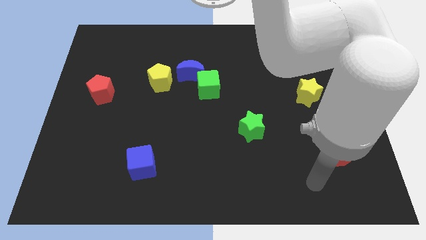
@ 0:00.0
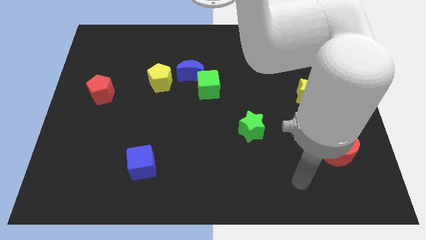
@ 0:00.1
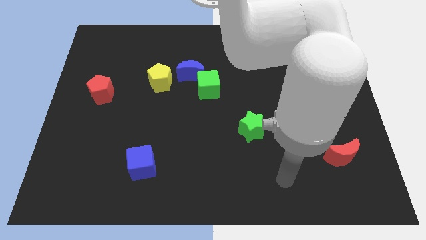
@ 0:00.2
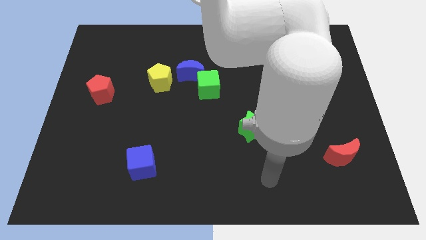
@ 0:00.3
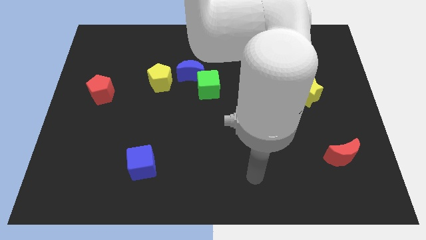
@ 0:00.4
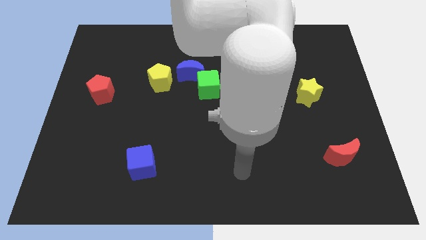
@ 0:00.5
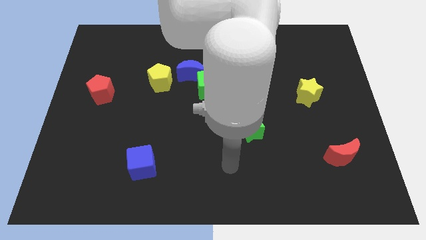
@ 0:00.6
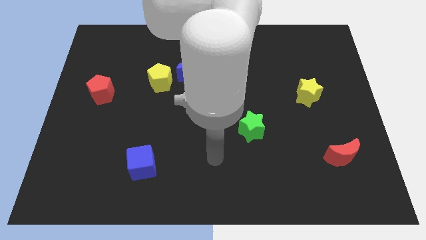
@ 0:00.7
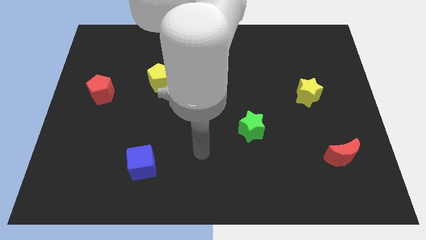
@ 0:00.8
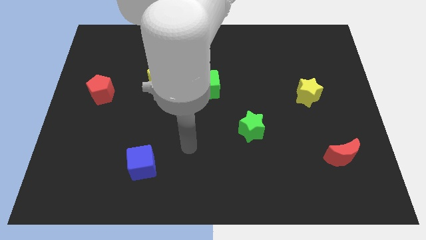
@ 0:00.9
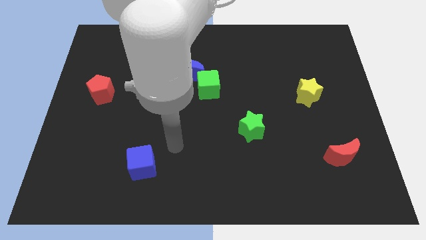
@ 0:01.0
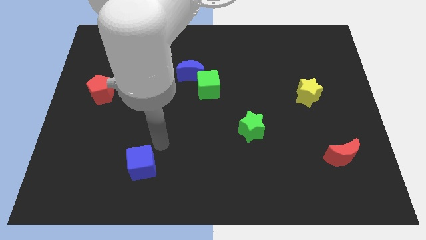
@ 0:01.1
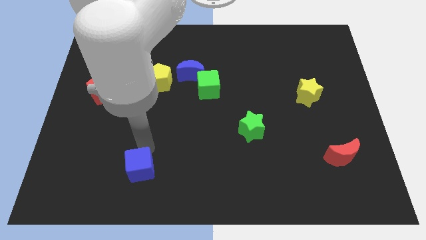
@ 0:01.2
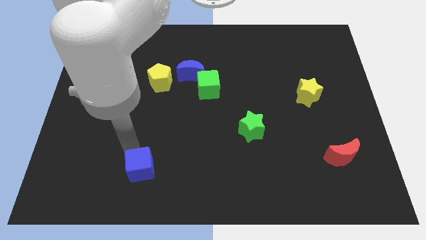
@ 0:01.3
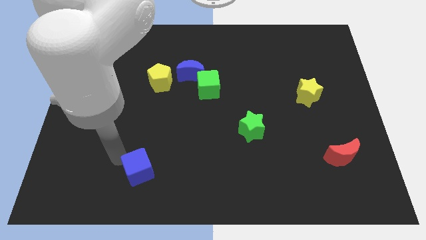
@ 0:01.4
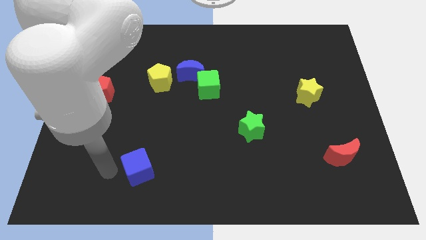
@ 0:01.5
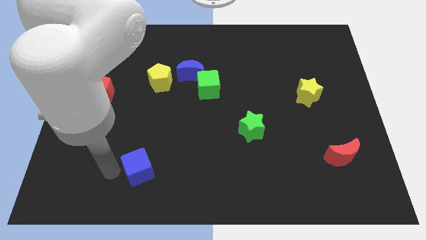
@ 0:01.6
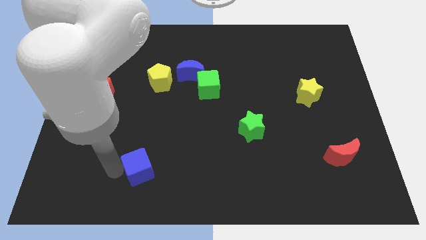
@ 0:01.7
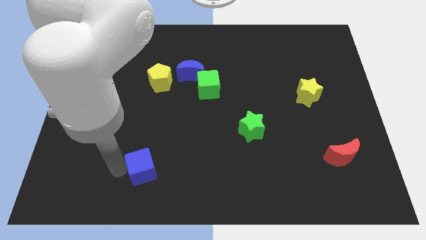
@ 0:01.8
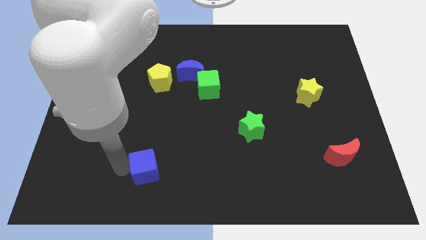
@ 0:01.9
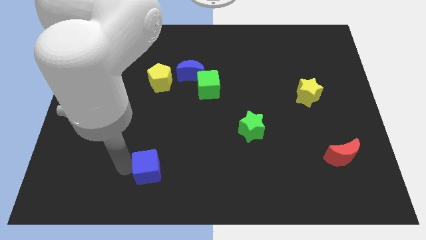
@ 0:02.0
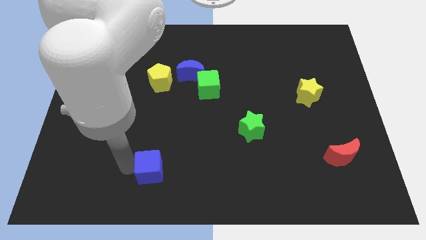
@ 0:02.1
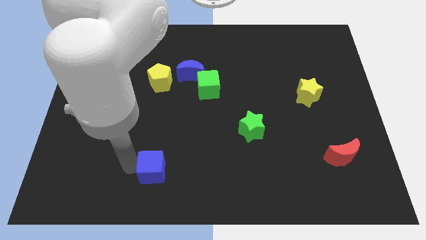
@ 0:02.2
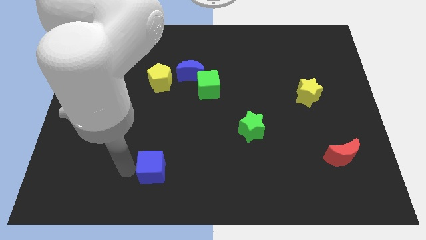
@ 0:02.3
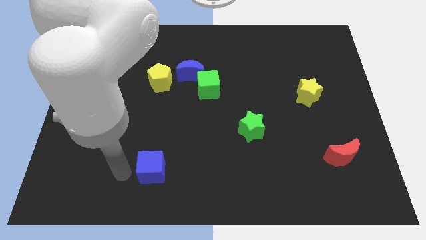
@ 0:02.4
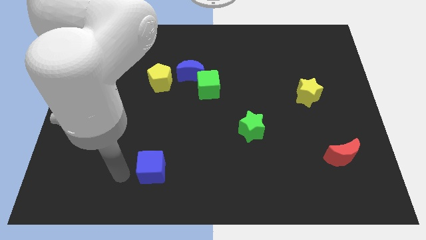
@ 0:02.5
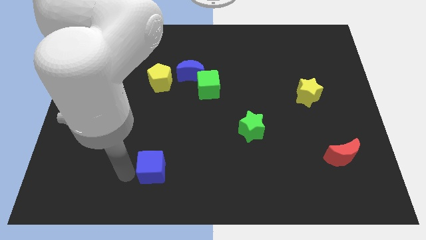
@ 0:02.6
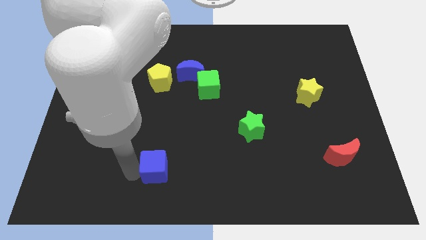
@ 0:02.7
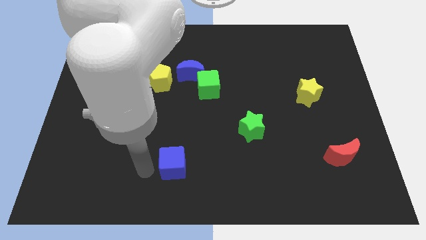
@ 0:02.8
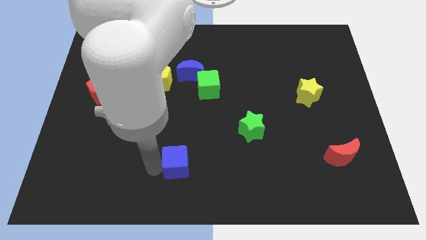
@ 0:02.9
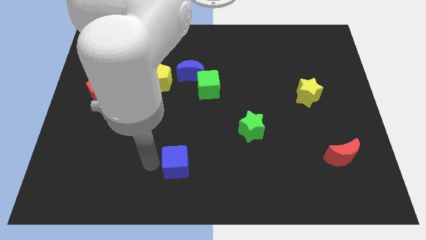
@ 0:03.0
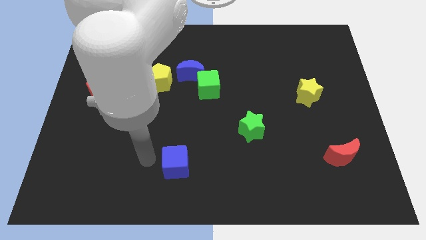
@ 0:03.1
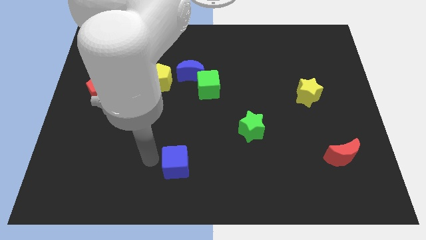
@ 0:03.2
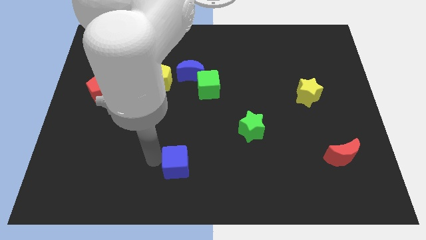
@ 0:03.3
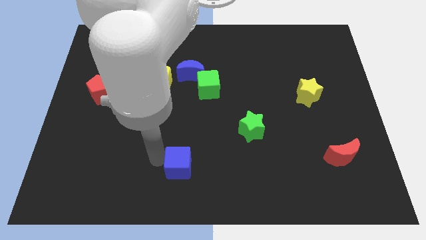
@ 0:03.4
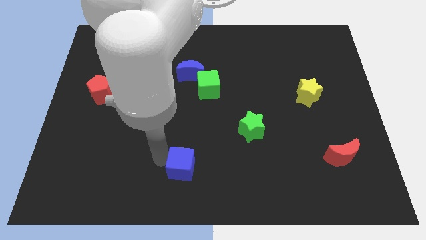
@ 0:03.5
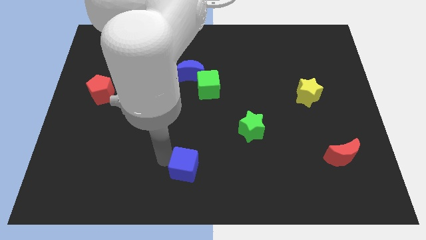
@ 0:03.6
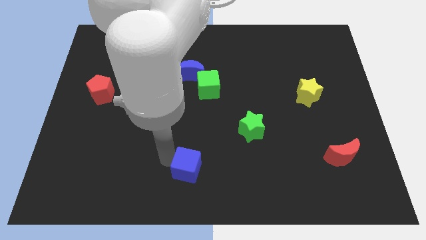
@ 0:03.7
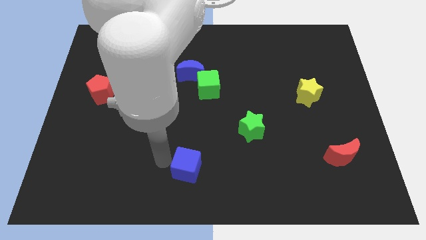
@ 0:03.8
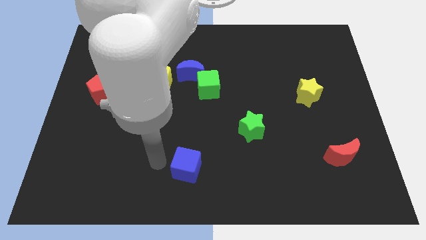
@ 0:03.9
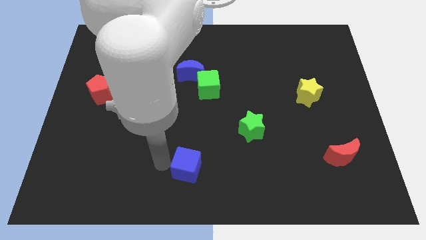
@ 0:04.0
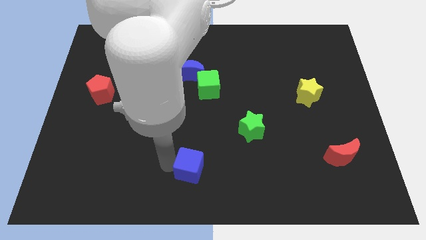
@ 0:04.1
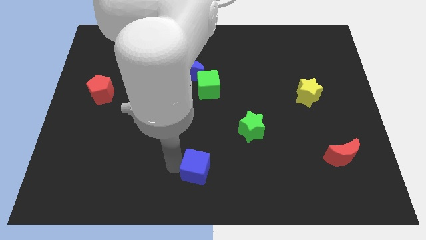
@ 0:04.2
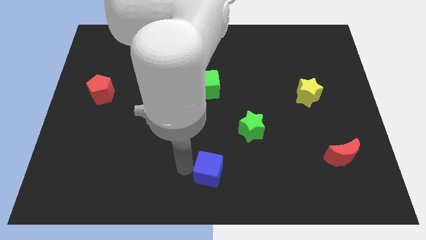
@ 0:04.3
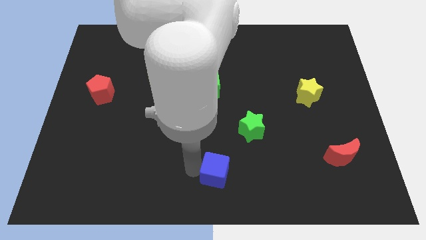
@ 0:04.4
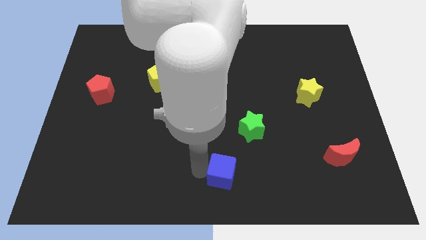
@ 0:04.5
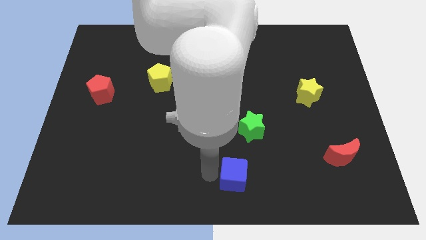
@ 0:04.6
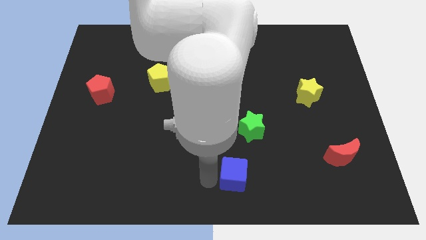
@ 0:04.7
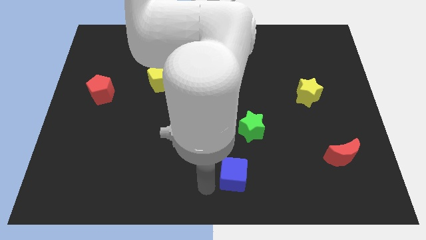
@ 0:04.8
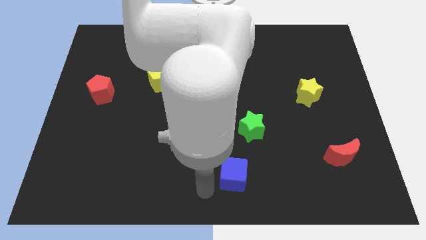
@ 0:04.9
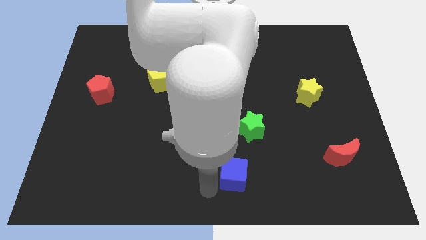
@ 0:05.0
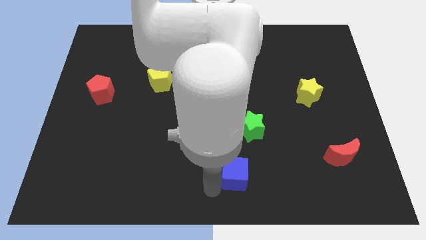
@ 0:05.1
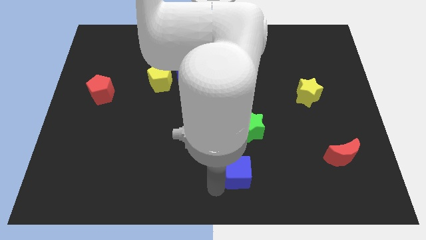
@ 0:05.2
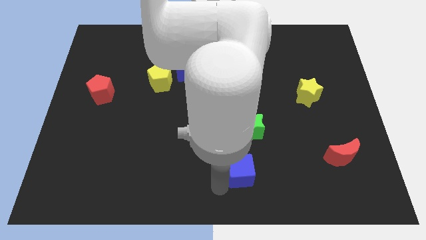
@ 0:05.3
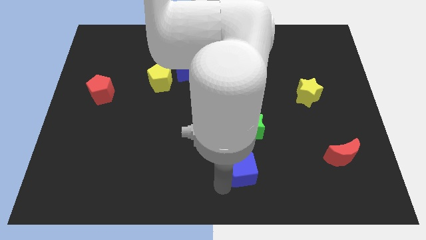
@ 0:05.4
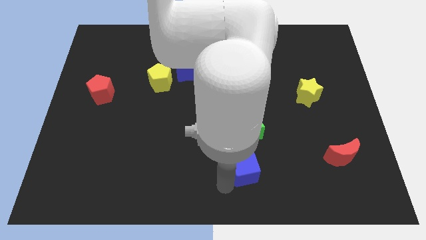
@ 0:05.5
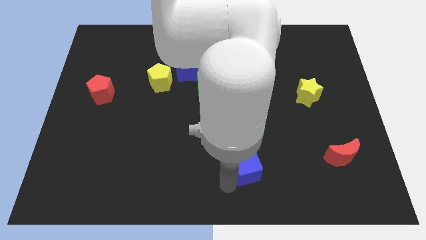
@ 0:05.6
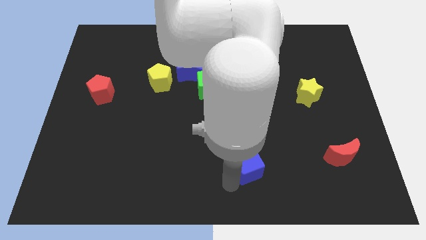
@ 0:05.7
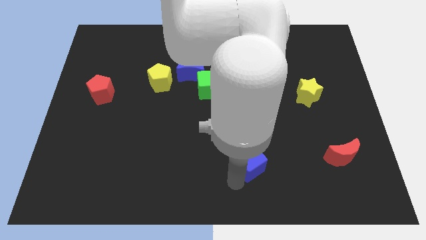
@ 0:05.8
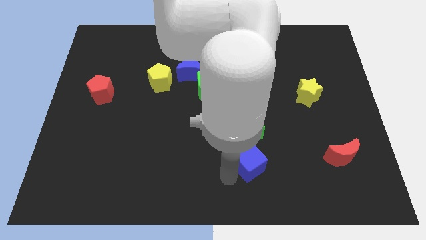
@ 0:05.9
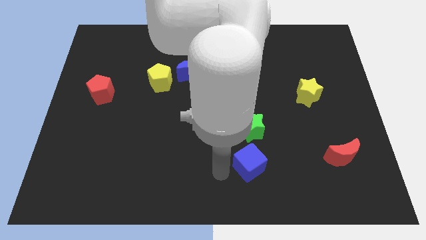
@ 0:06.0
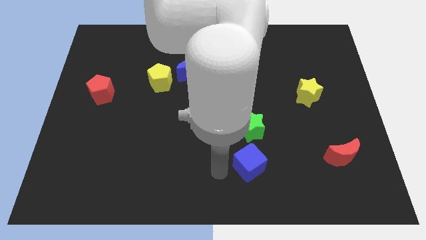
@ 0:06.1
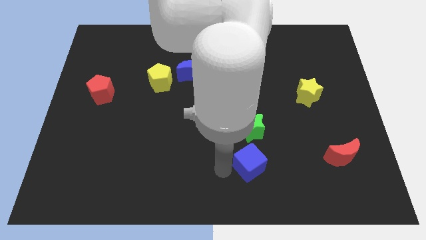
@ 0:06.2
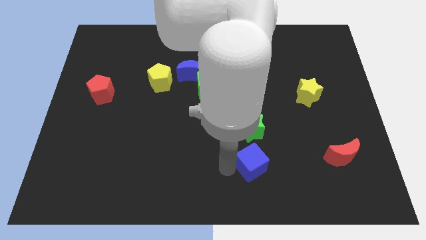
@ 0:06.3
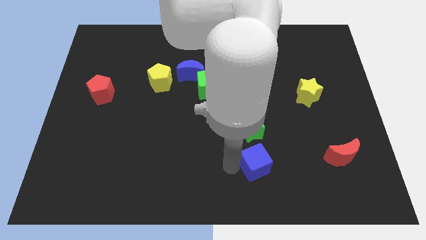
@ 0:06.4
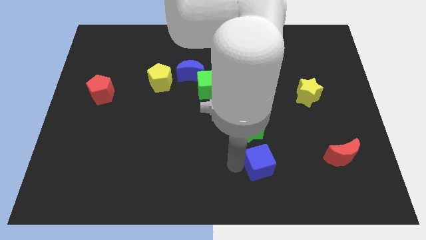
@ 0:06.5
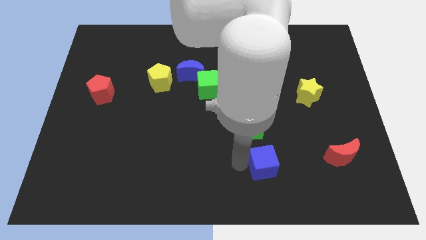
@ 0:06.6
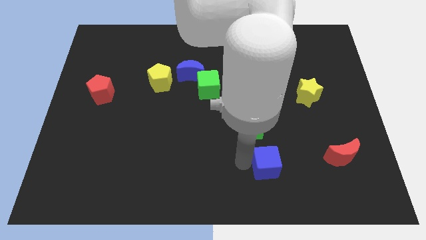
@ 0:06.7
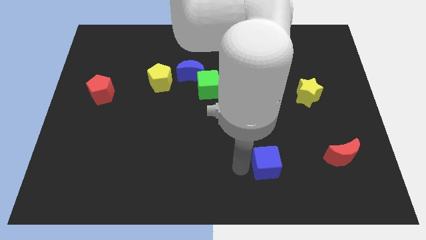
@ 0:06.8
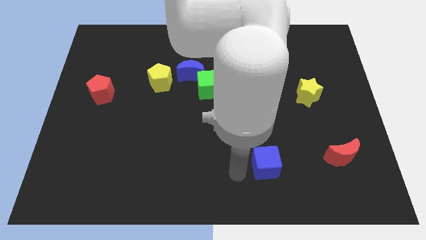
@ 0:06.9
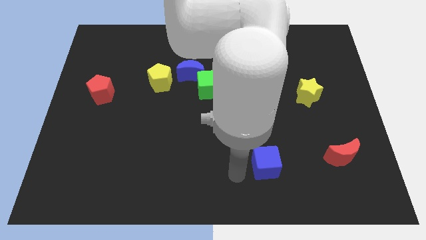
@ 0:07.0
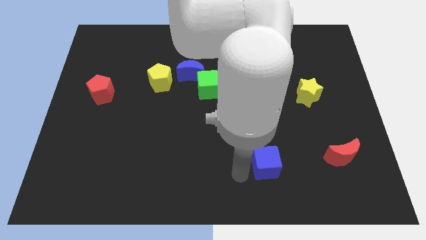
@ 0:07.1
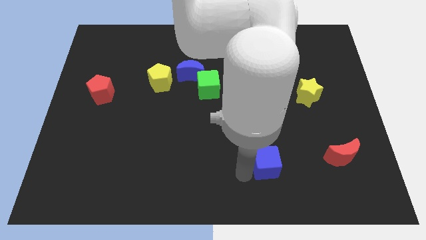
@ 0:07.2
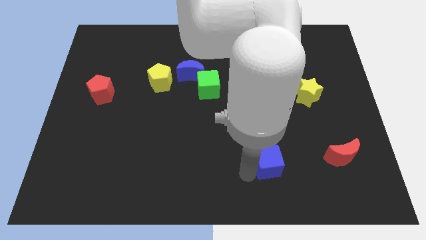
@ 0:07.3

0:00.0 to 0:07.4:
push the blue cube to the left of the red moon
